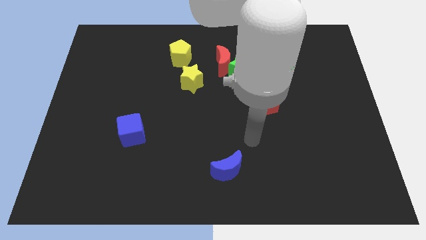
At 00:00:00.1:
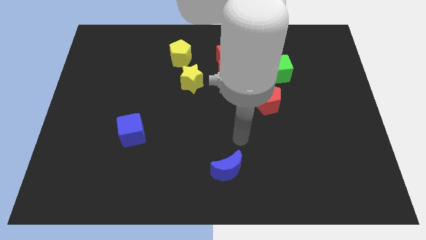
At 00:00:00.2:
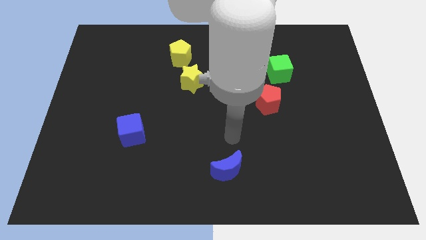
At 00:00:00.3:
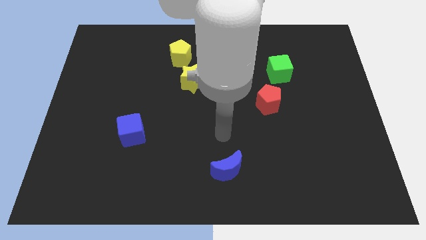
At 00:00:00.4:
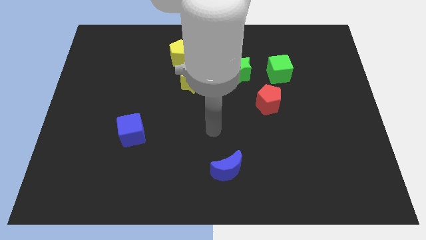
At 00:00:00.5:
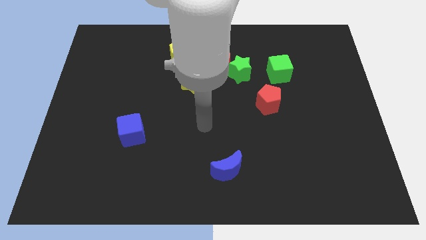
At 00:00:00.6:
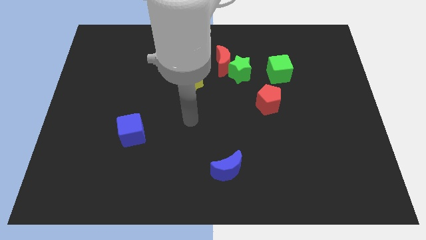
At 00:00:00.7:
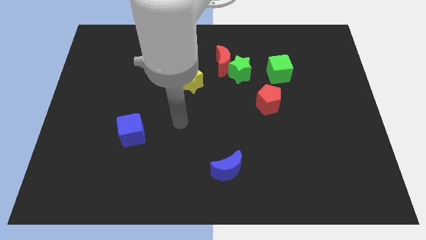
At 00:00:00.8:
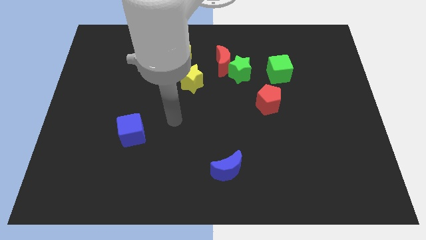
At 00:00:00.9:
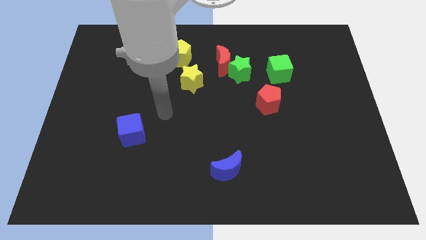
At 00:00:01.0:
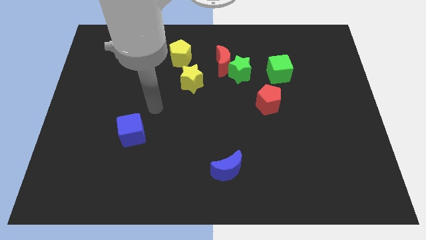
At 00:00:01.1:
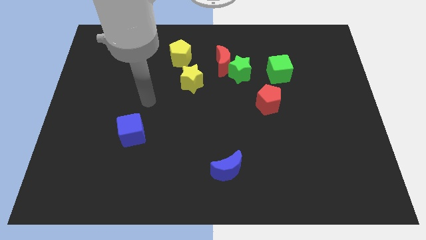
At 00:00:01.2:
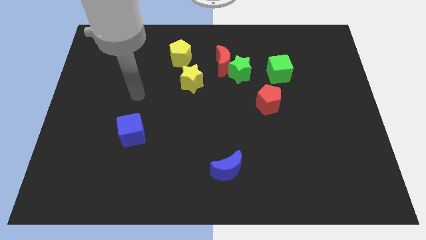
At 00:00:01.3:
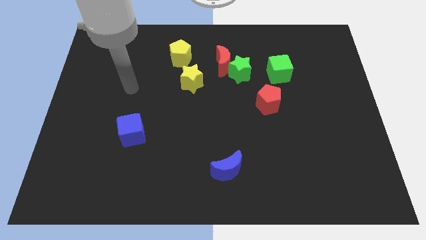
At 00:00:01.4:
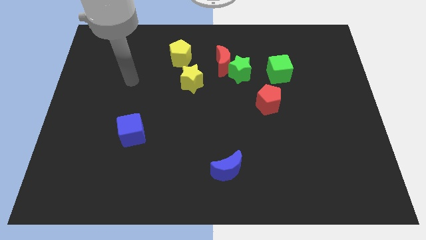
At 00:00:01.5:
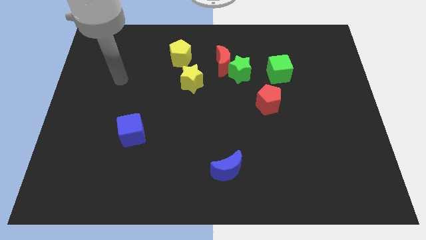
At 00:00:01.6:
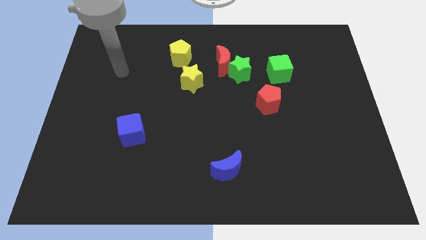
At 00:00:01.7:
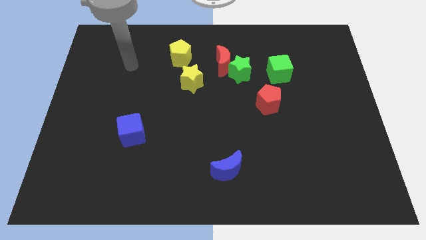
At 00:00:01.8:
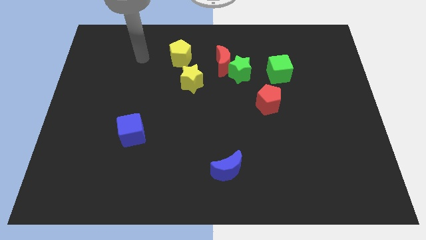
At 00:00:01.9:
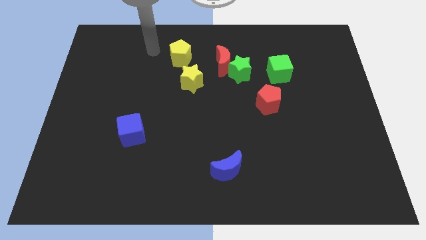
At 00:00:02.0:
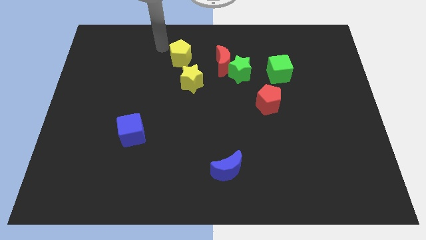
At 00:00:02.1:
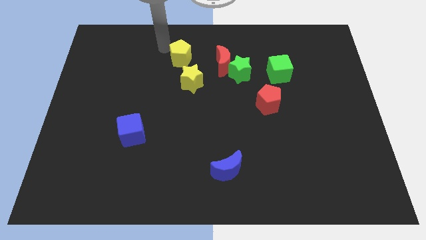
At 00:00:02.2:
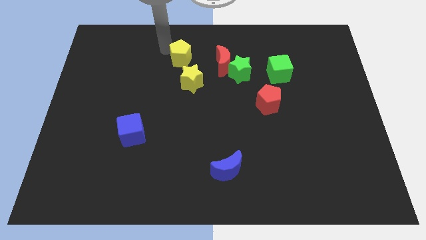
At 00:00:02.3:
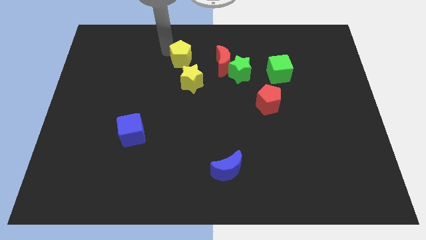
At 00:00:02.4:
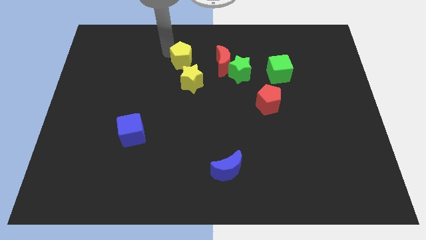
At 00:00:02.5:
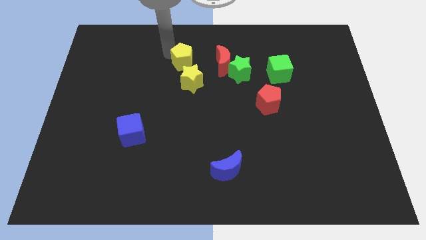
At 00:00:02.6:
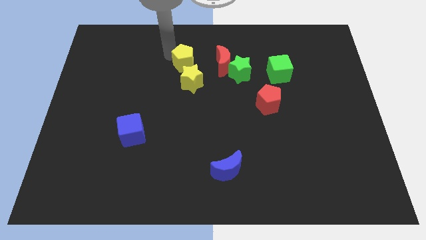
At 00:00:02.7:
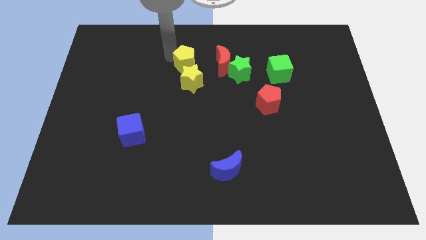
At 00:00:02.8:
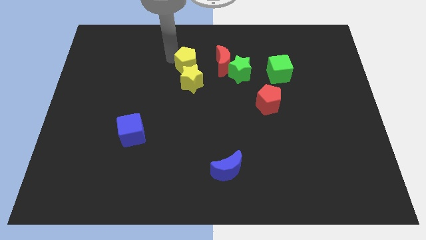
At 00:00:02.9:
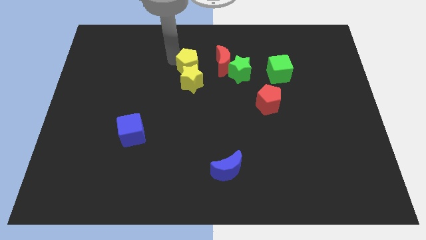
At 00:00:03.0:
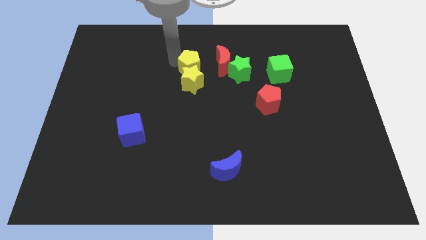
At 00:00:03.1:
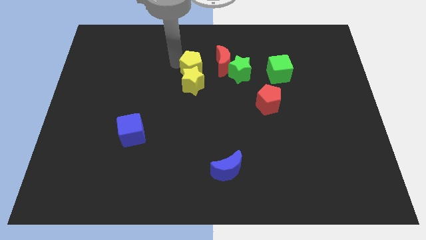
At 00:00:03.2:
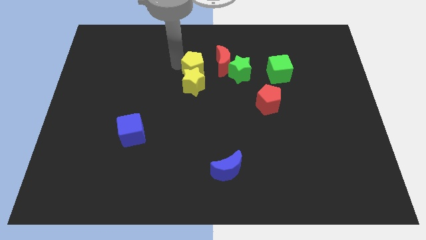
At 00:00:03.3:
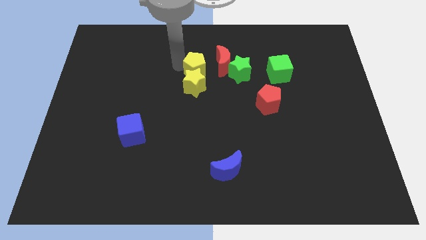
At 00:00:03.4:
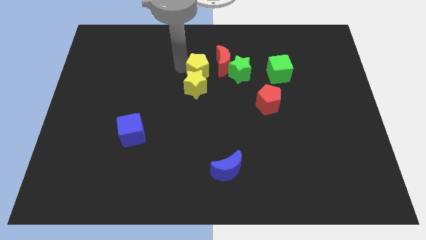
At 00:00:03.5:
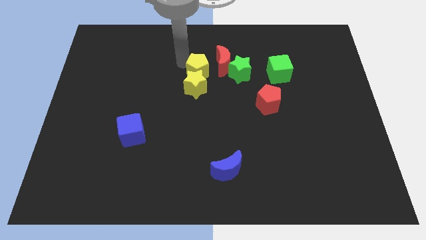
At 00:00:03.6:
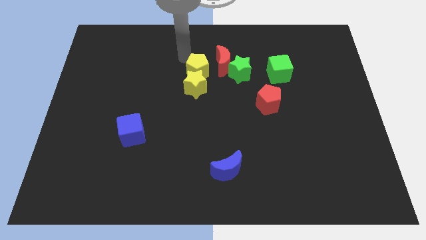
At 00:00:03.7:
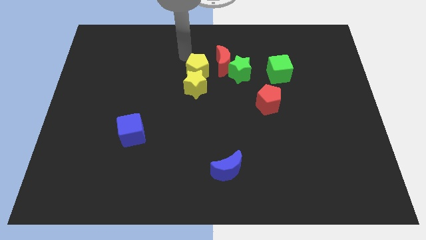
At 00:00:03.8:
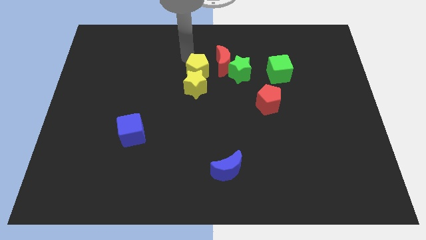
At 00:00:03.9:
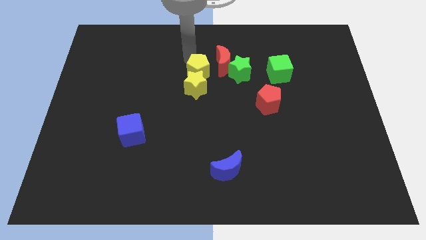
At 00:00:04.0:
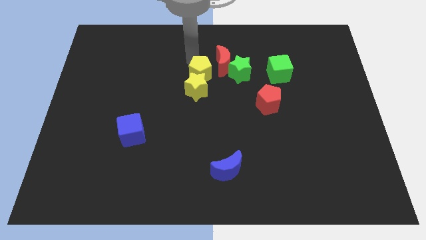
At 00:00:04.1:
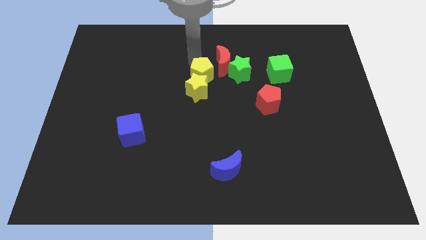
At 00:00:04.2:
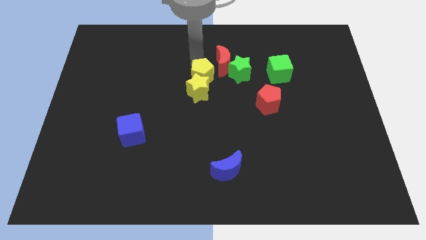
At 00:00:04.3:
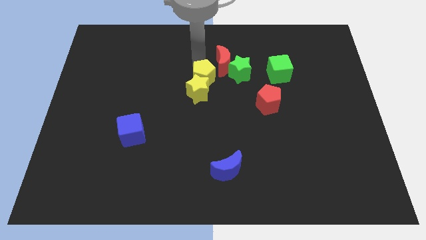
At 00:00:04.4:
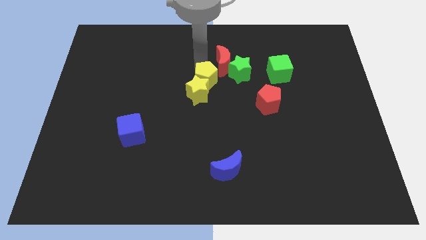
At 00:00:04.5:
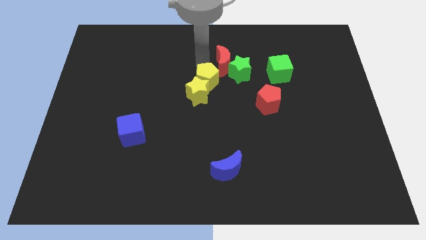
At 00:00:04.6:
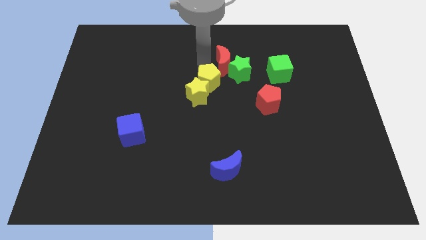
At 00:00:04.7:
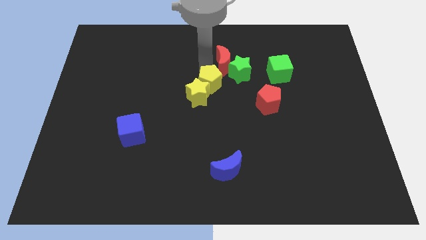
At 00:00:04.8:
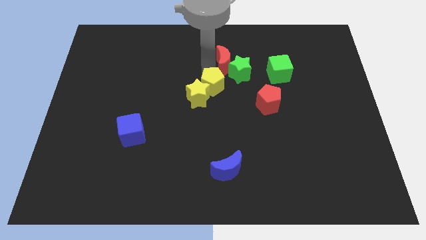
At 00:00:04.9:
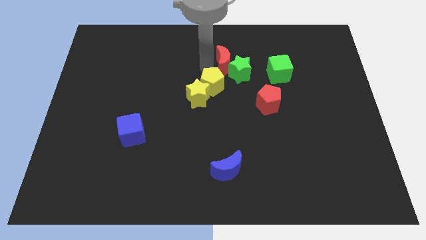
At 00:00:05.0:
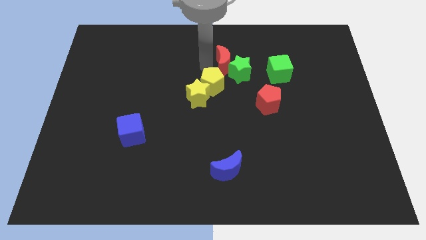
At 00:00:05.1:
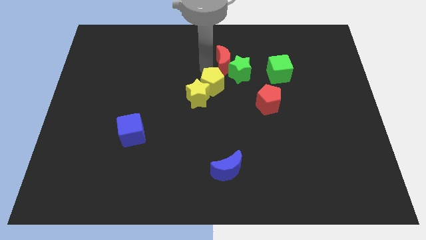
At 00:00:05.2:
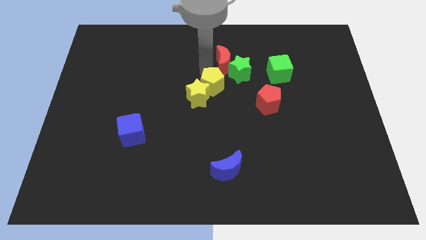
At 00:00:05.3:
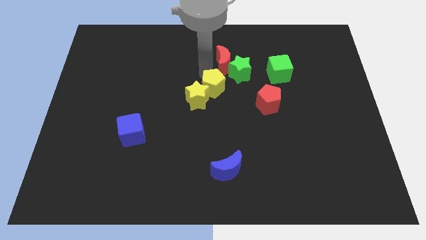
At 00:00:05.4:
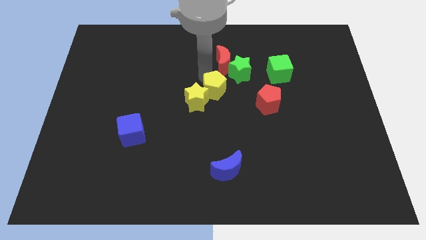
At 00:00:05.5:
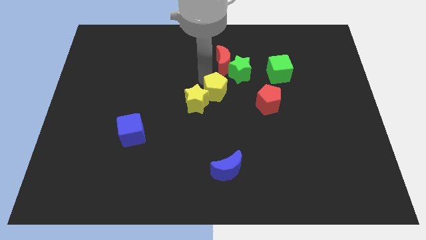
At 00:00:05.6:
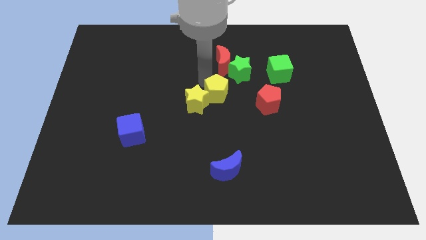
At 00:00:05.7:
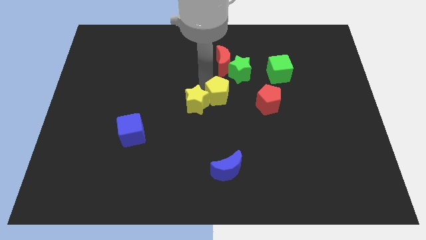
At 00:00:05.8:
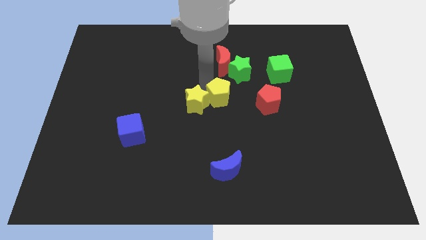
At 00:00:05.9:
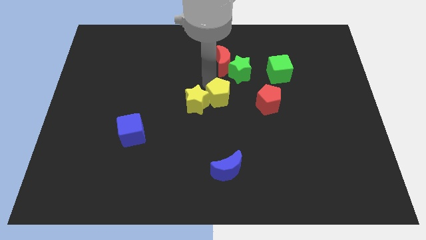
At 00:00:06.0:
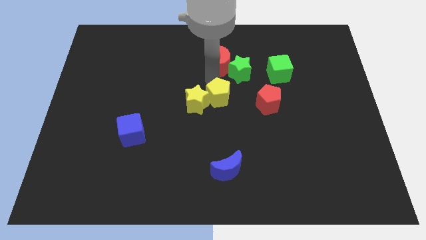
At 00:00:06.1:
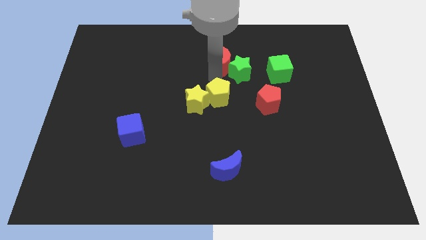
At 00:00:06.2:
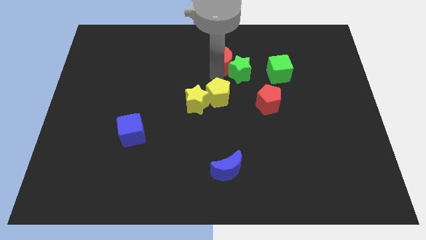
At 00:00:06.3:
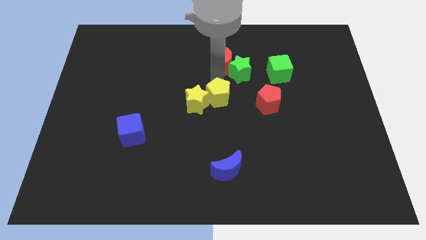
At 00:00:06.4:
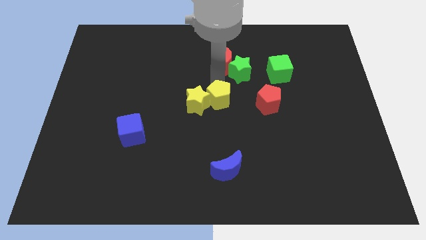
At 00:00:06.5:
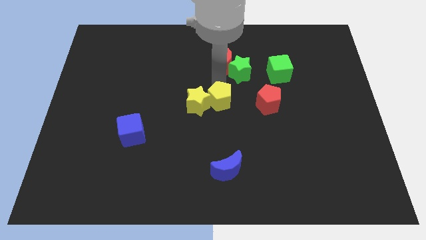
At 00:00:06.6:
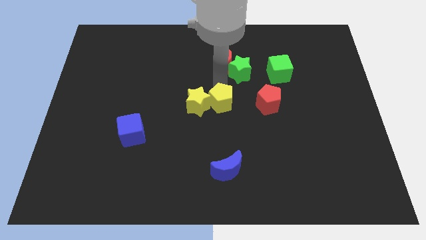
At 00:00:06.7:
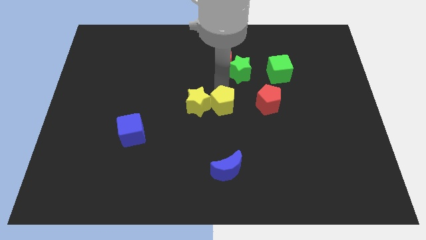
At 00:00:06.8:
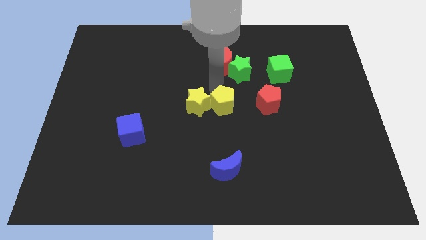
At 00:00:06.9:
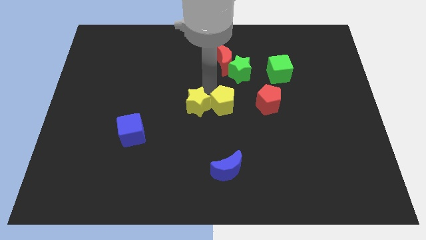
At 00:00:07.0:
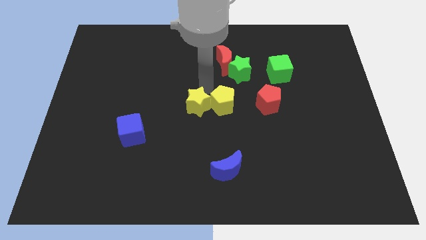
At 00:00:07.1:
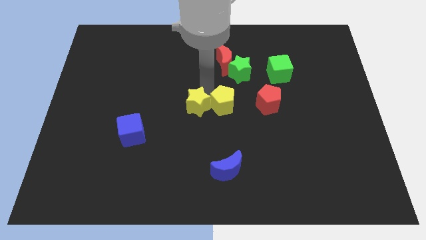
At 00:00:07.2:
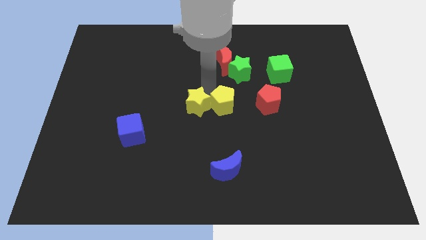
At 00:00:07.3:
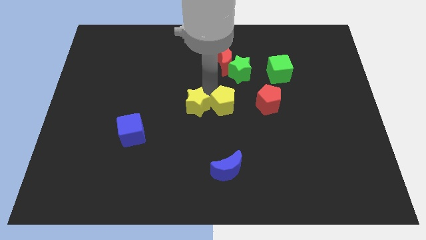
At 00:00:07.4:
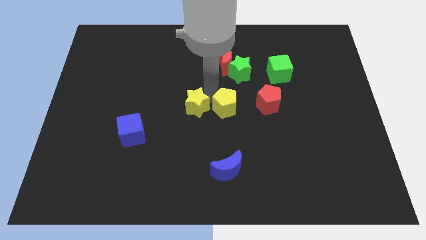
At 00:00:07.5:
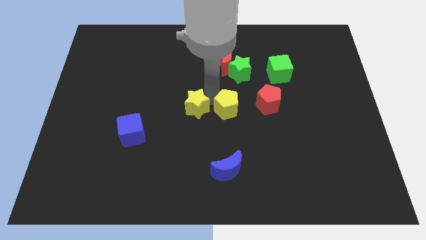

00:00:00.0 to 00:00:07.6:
slide the yellow pentagon down and to the right

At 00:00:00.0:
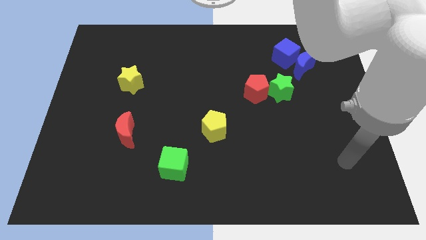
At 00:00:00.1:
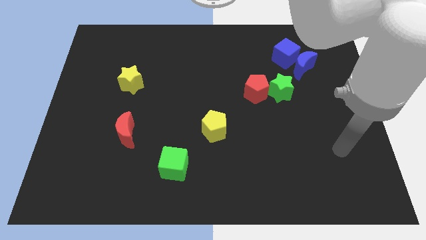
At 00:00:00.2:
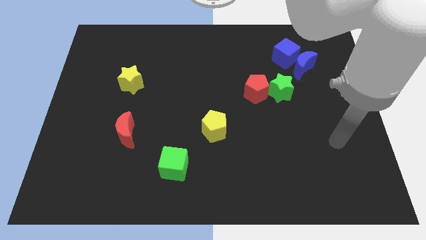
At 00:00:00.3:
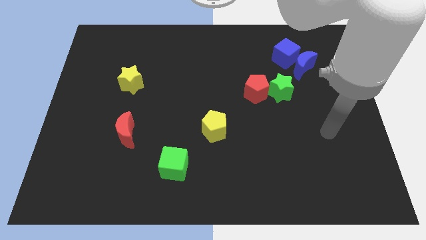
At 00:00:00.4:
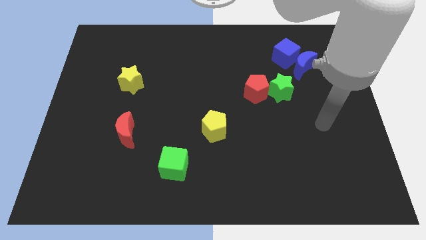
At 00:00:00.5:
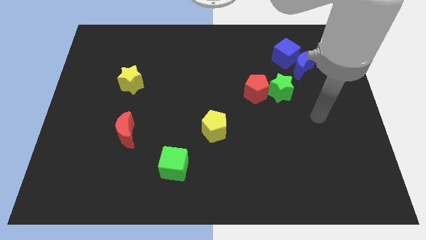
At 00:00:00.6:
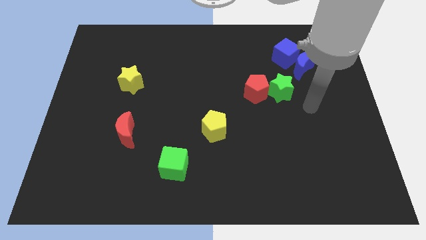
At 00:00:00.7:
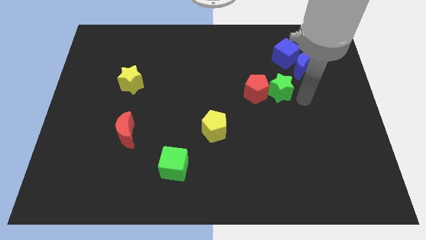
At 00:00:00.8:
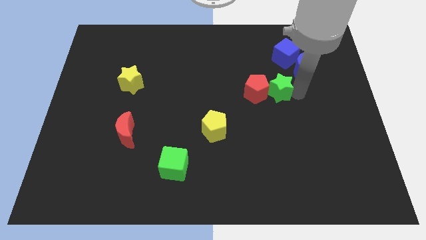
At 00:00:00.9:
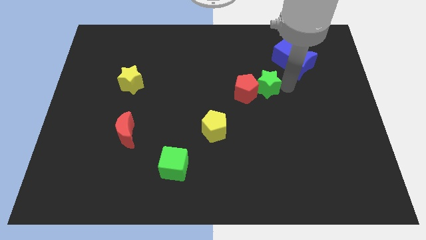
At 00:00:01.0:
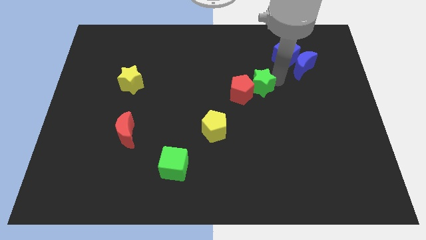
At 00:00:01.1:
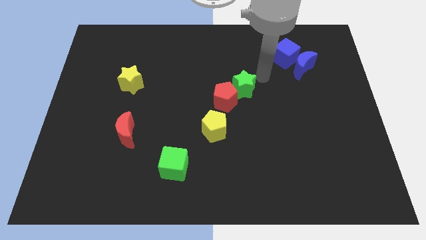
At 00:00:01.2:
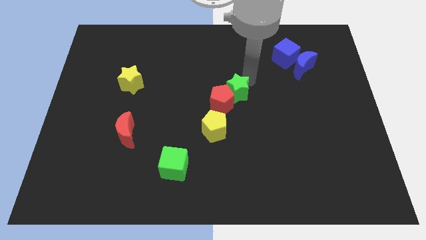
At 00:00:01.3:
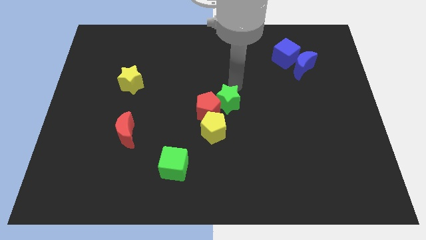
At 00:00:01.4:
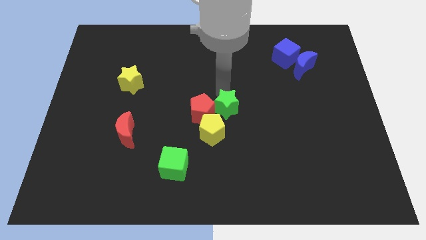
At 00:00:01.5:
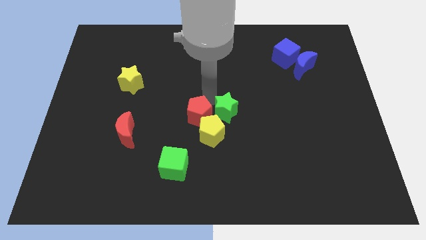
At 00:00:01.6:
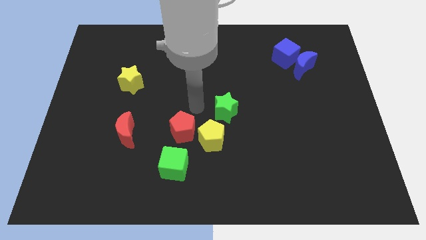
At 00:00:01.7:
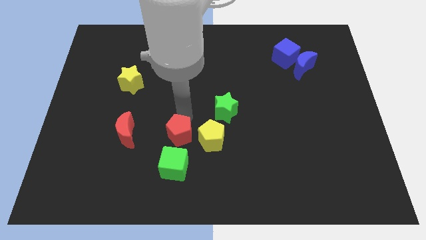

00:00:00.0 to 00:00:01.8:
move the red pentagon downwards and left diagonally
